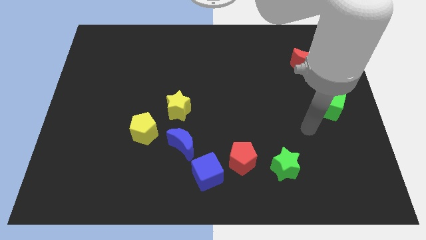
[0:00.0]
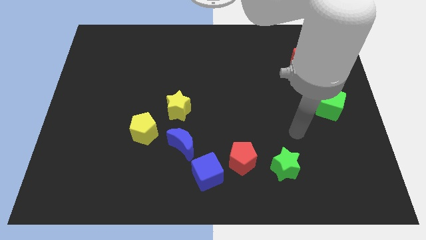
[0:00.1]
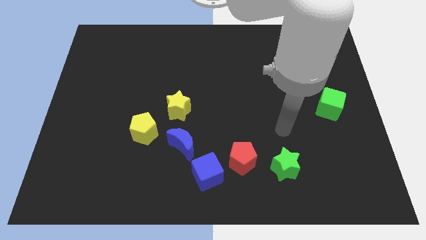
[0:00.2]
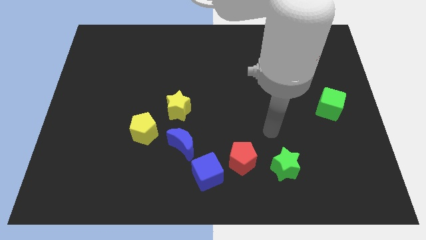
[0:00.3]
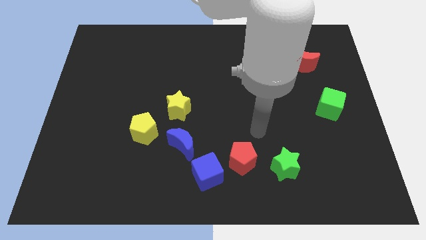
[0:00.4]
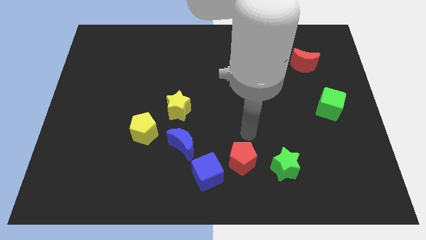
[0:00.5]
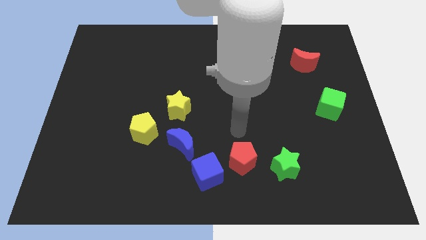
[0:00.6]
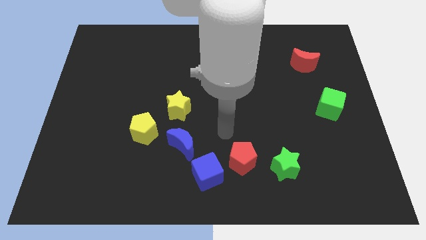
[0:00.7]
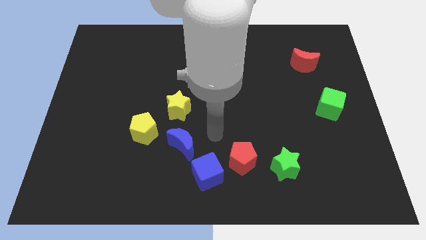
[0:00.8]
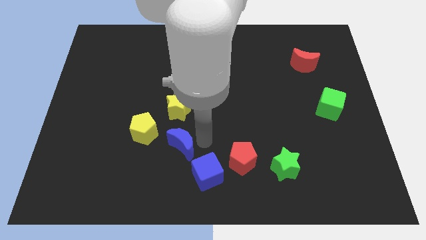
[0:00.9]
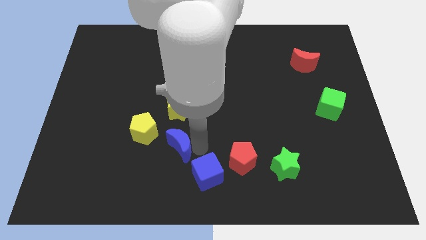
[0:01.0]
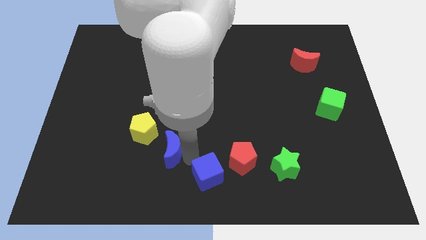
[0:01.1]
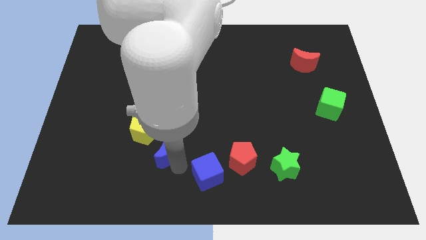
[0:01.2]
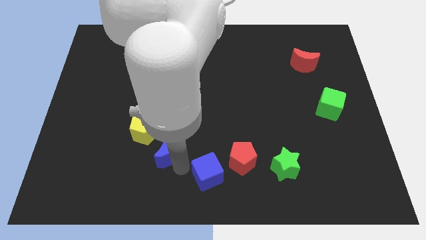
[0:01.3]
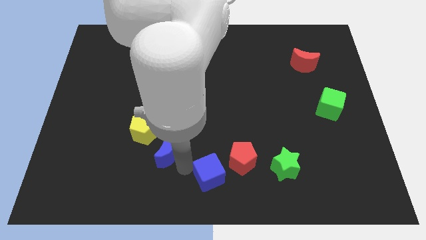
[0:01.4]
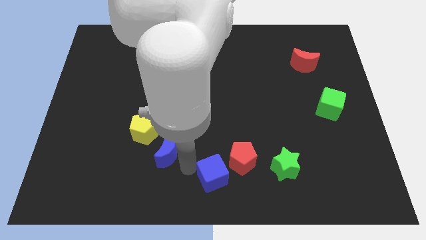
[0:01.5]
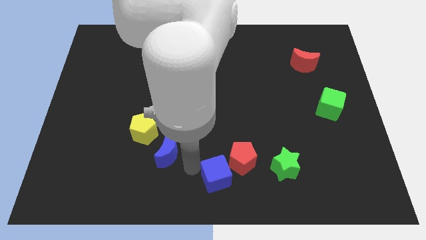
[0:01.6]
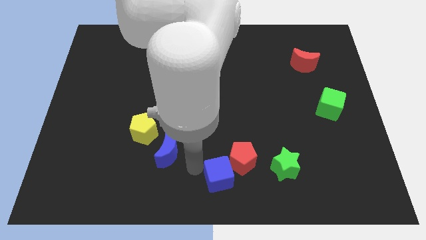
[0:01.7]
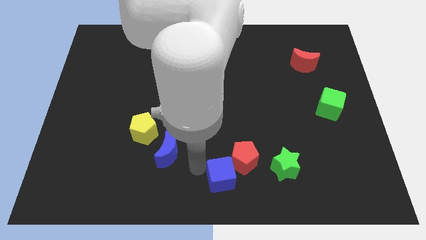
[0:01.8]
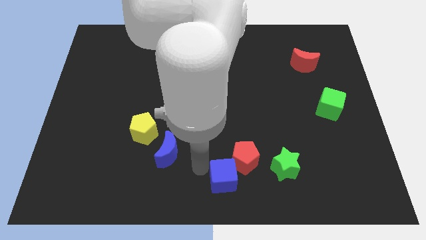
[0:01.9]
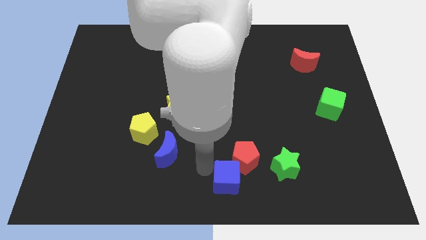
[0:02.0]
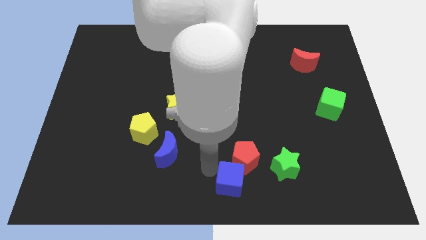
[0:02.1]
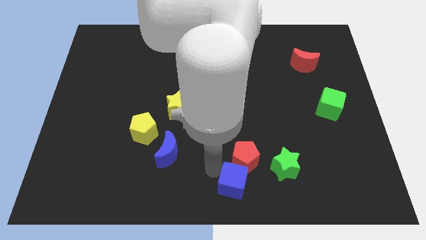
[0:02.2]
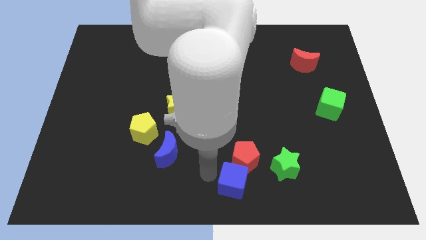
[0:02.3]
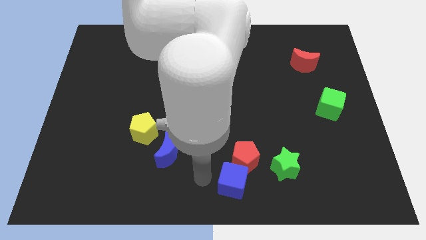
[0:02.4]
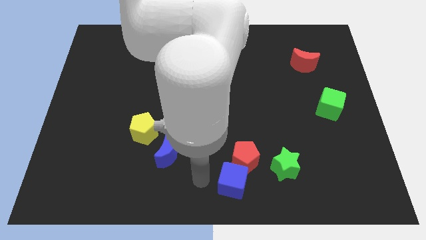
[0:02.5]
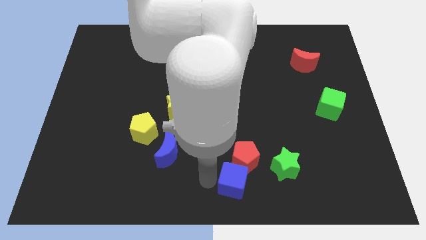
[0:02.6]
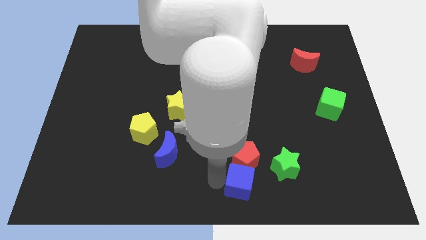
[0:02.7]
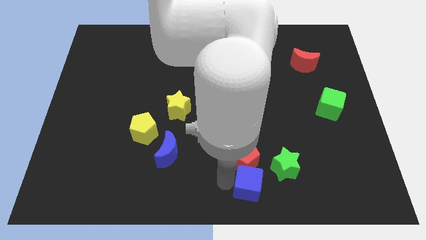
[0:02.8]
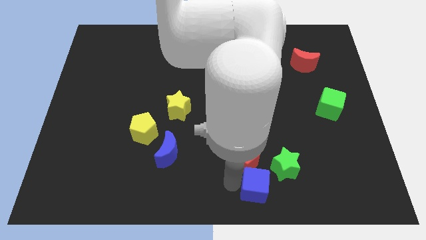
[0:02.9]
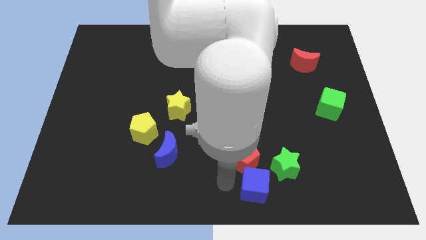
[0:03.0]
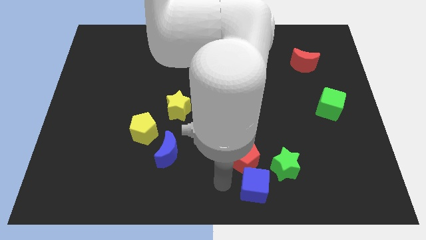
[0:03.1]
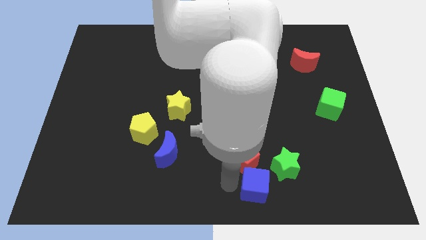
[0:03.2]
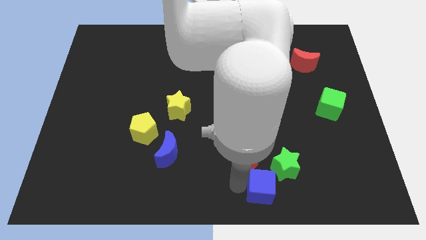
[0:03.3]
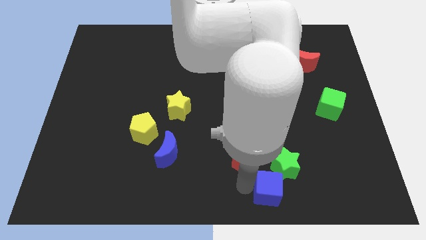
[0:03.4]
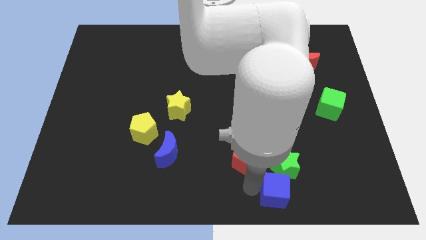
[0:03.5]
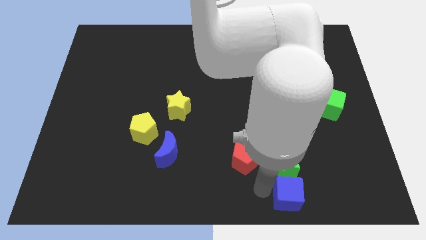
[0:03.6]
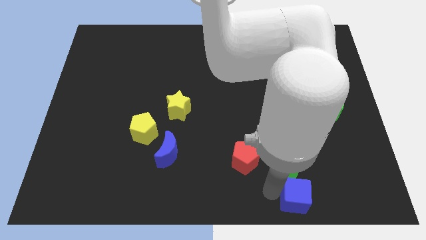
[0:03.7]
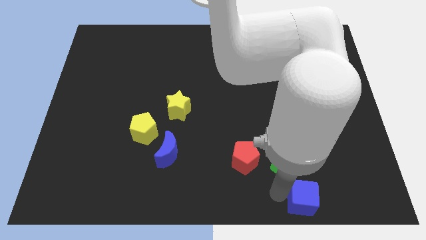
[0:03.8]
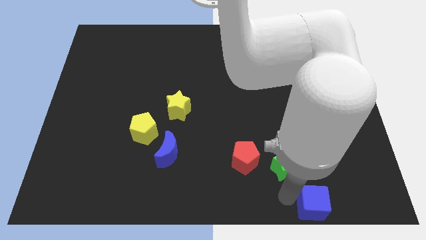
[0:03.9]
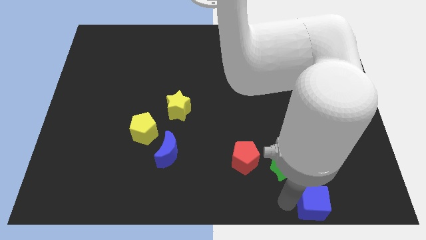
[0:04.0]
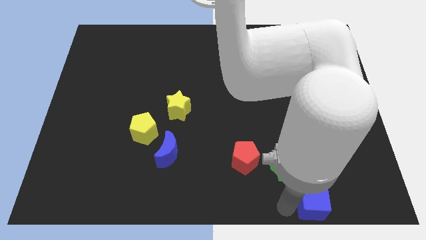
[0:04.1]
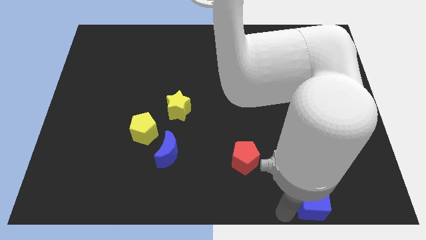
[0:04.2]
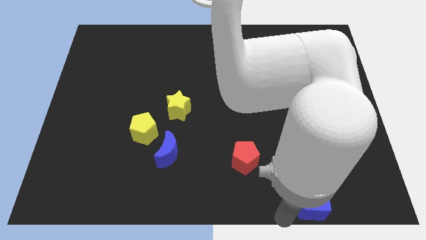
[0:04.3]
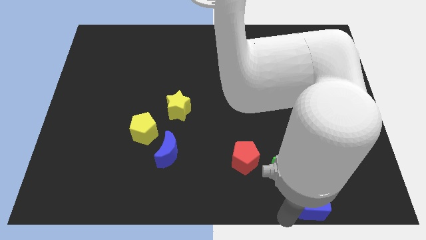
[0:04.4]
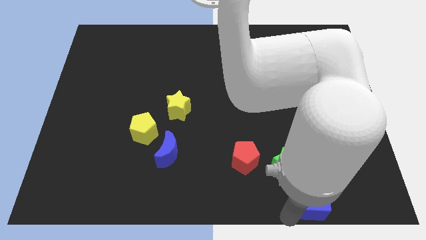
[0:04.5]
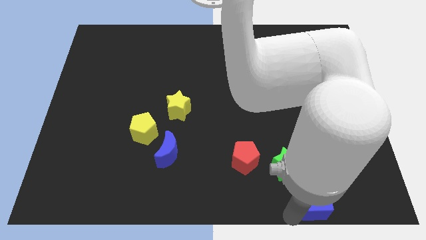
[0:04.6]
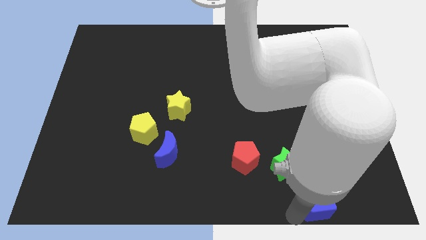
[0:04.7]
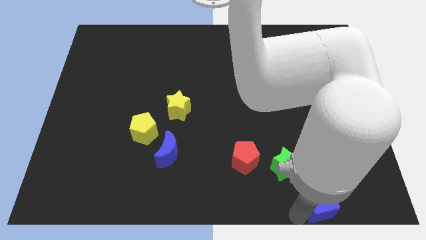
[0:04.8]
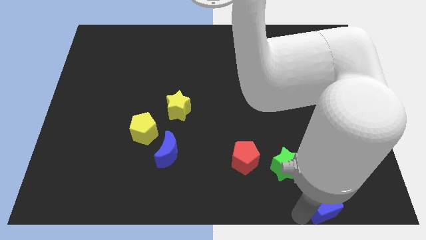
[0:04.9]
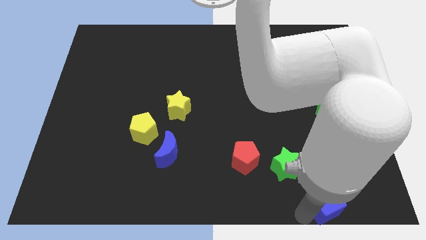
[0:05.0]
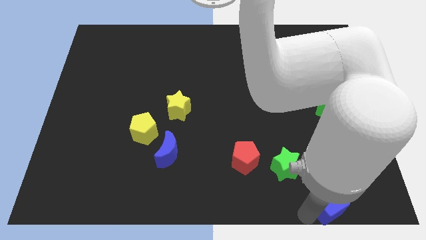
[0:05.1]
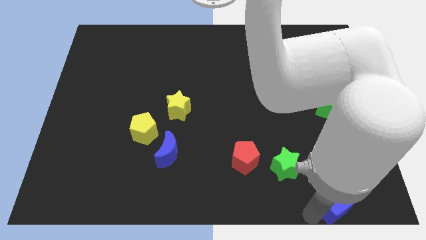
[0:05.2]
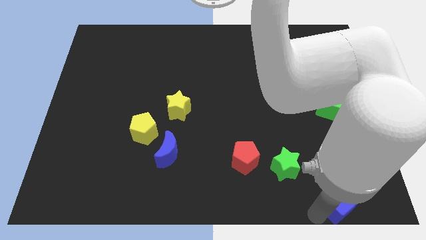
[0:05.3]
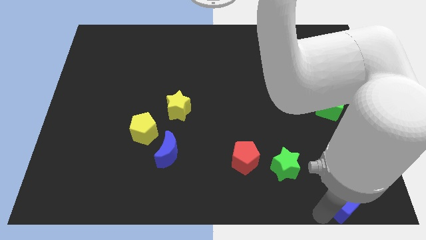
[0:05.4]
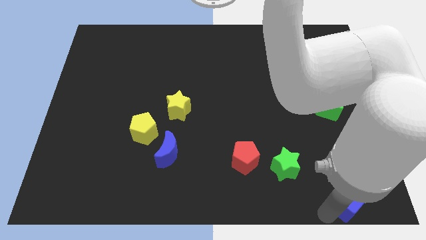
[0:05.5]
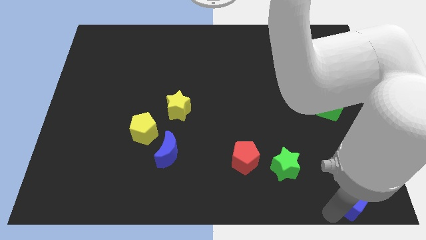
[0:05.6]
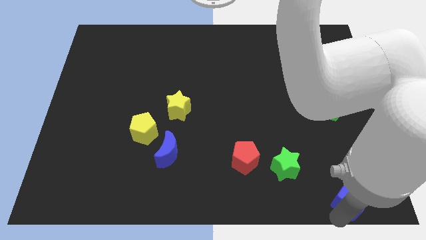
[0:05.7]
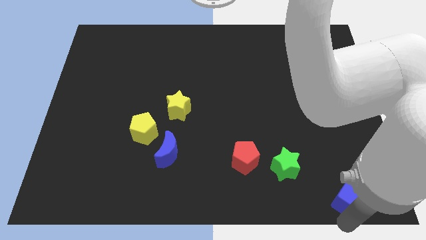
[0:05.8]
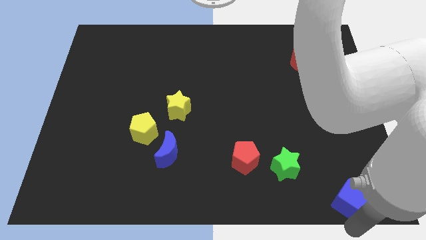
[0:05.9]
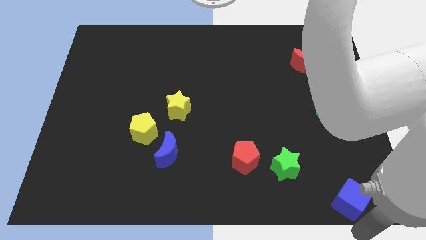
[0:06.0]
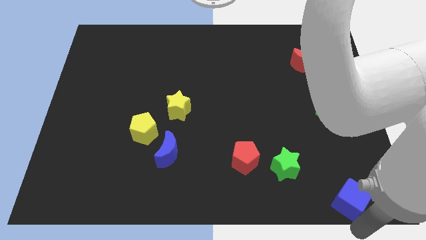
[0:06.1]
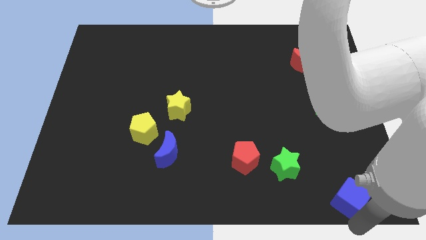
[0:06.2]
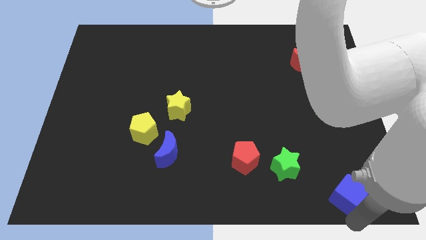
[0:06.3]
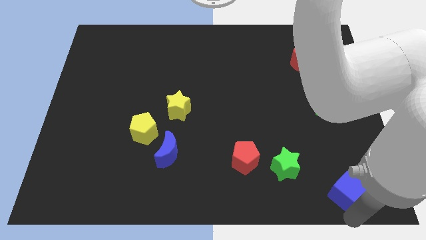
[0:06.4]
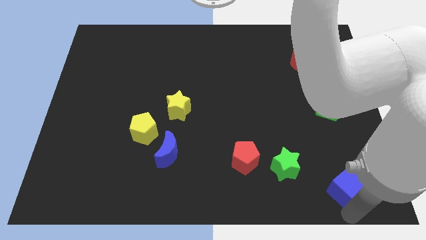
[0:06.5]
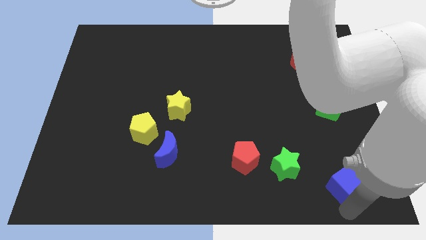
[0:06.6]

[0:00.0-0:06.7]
slide the blue cube just right of the green star
